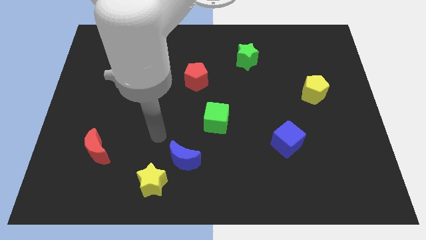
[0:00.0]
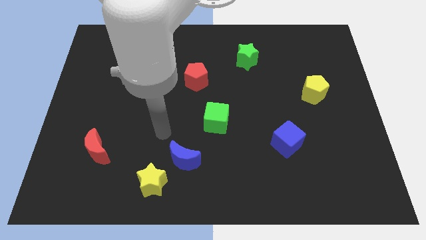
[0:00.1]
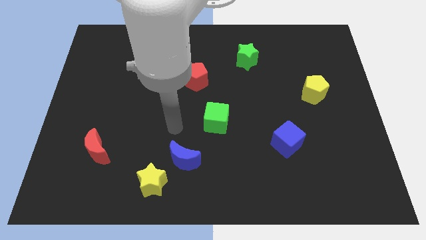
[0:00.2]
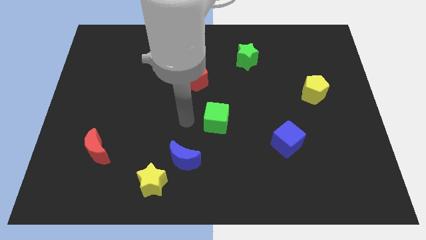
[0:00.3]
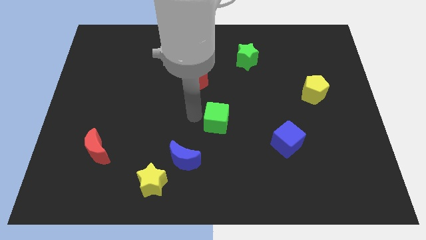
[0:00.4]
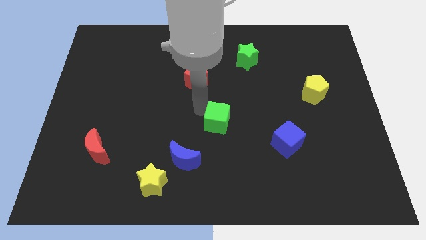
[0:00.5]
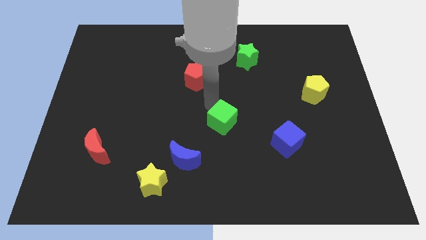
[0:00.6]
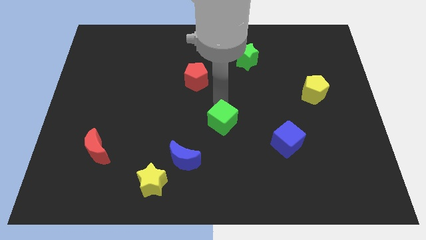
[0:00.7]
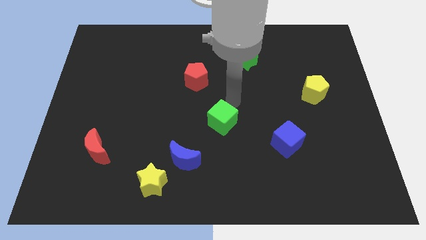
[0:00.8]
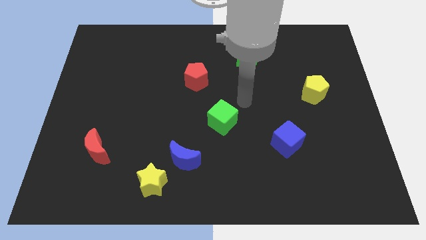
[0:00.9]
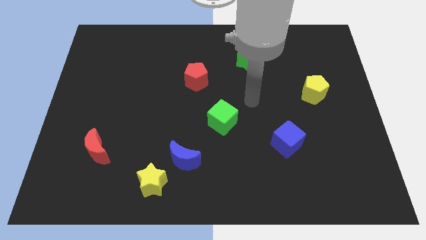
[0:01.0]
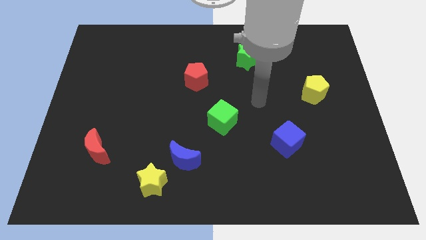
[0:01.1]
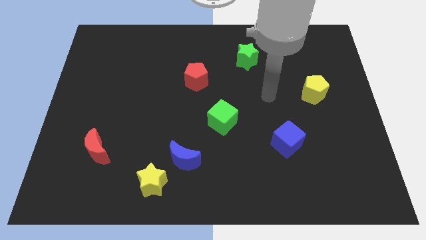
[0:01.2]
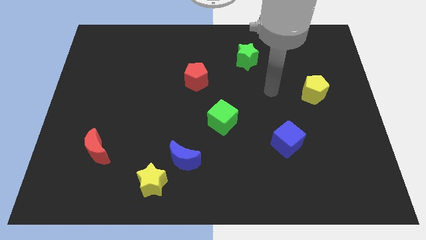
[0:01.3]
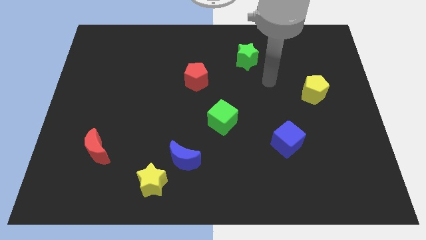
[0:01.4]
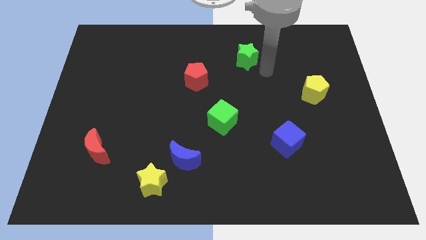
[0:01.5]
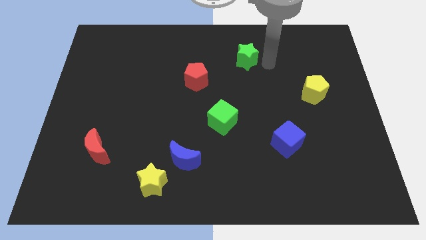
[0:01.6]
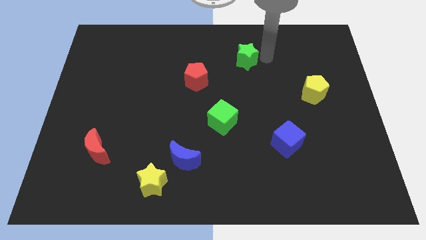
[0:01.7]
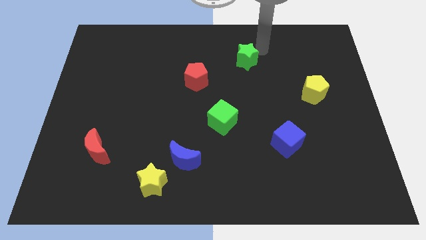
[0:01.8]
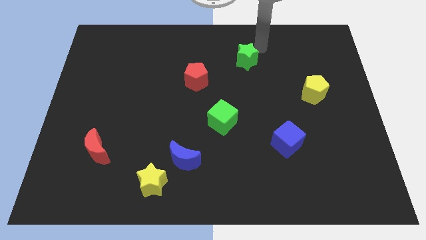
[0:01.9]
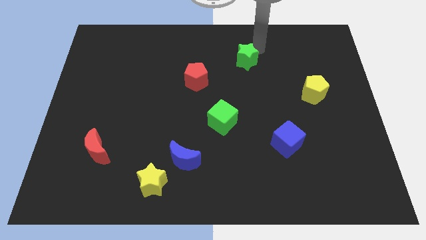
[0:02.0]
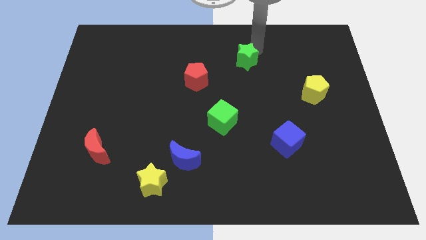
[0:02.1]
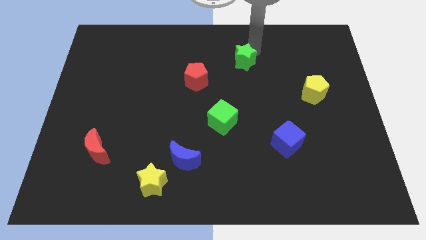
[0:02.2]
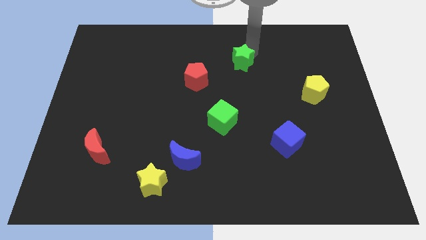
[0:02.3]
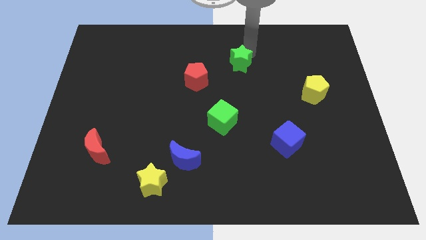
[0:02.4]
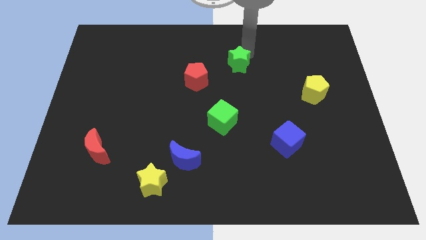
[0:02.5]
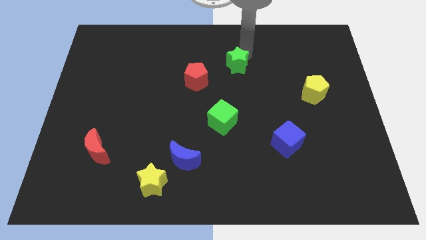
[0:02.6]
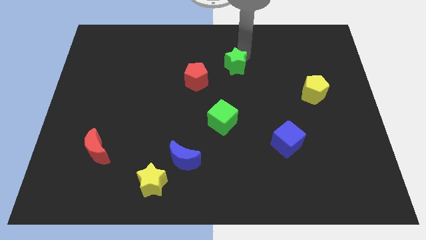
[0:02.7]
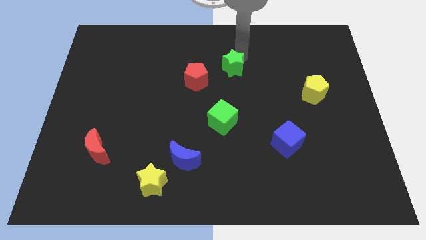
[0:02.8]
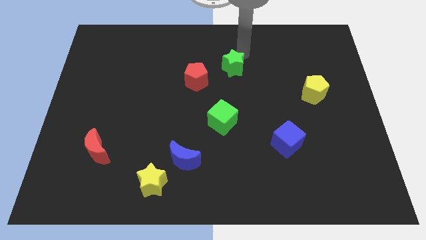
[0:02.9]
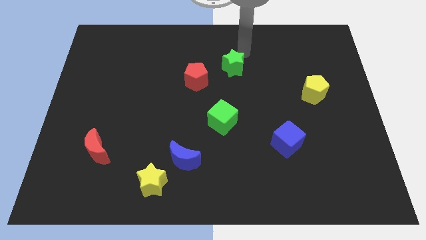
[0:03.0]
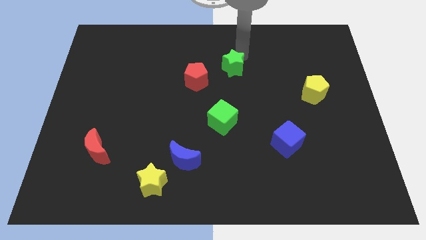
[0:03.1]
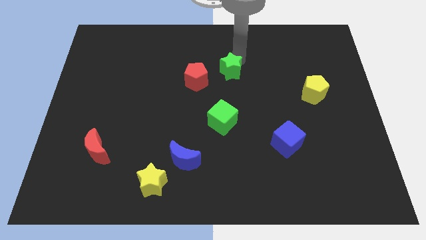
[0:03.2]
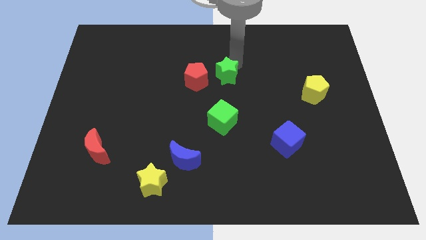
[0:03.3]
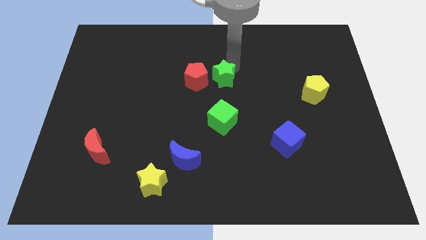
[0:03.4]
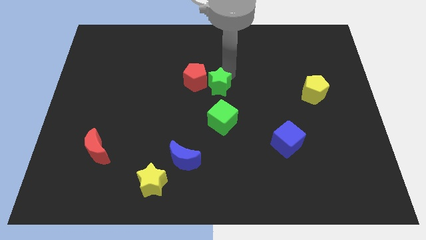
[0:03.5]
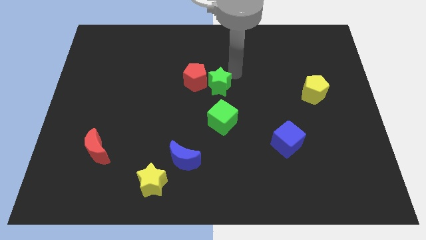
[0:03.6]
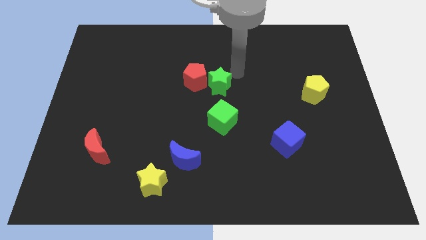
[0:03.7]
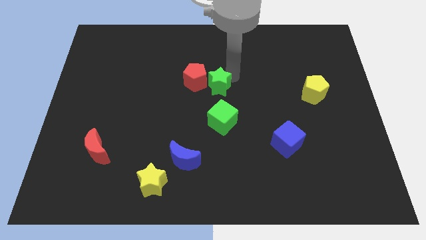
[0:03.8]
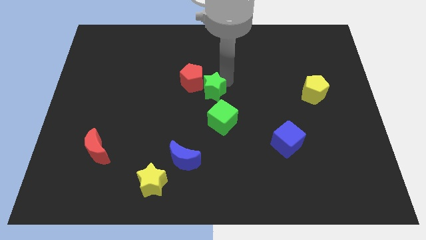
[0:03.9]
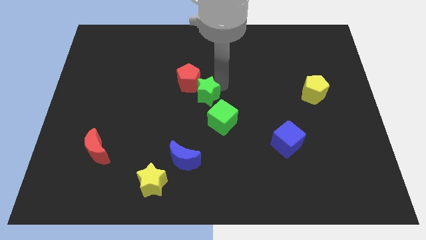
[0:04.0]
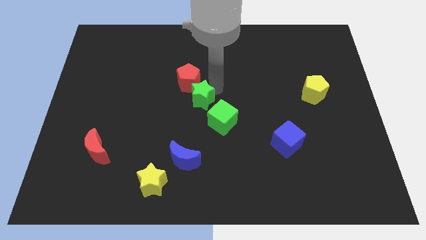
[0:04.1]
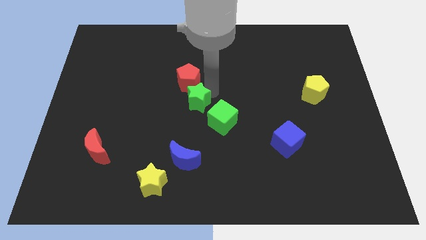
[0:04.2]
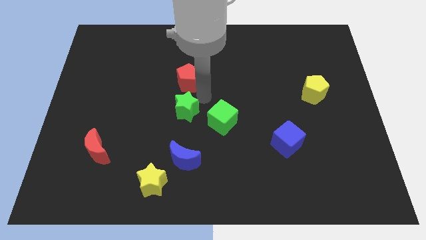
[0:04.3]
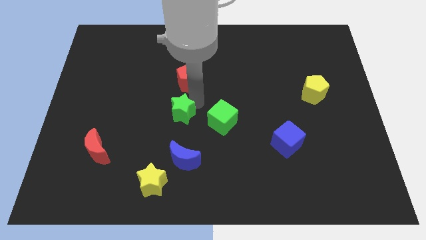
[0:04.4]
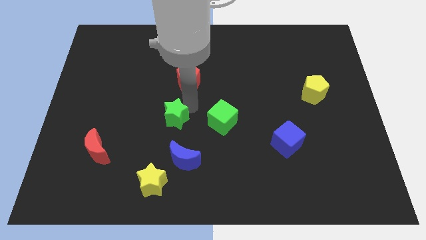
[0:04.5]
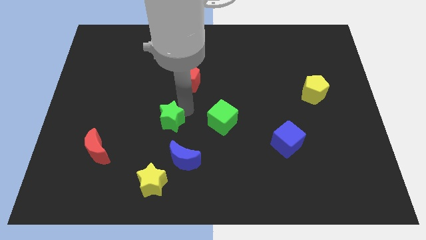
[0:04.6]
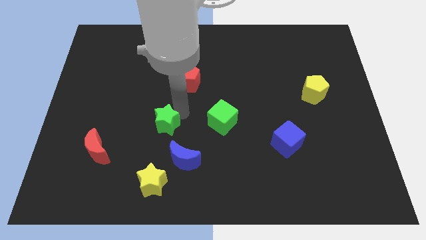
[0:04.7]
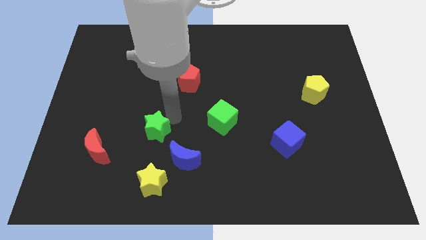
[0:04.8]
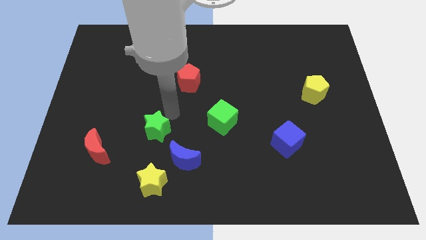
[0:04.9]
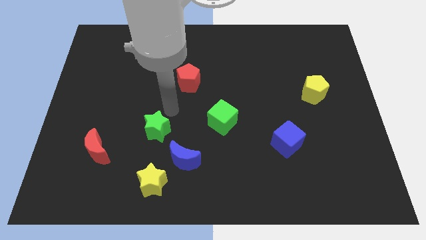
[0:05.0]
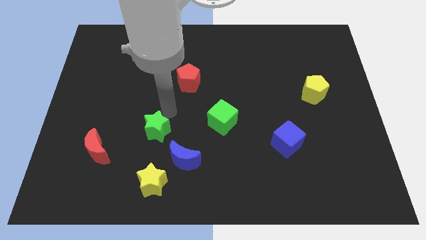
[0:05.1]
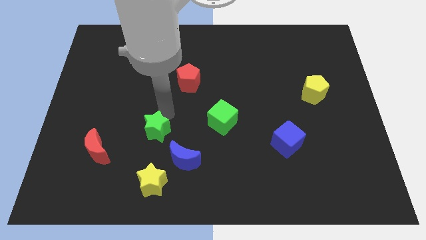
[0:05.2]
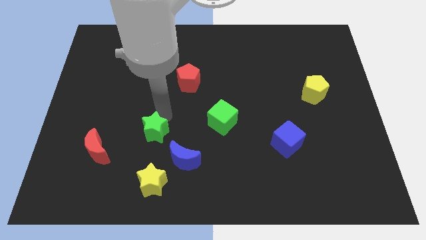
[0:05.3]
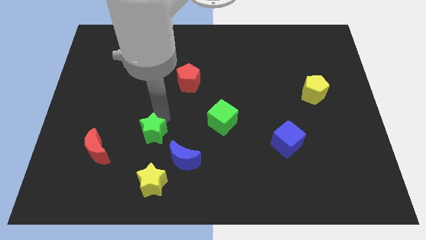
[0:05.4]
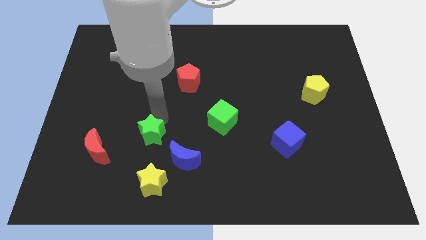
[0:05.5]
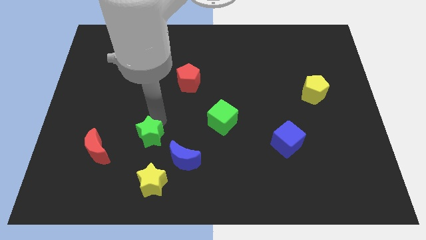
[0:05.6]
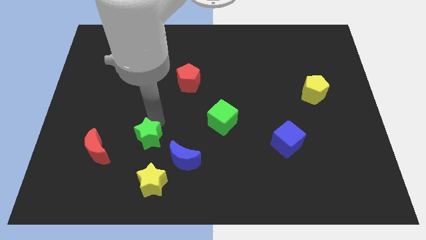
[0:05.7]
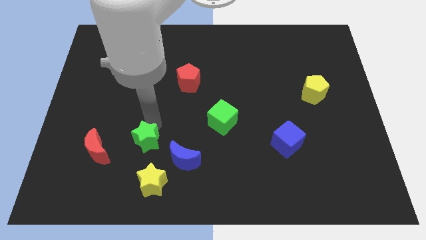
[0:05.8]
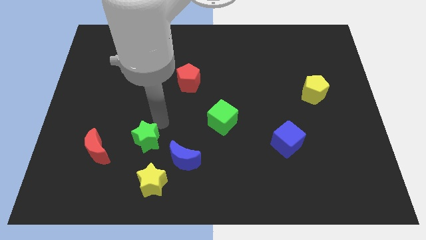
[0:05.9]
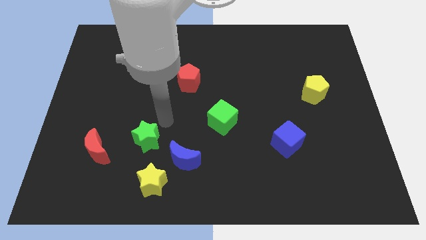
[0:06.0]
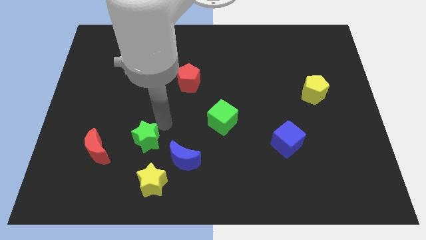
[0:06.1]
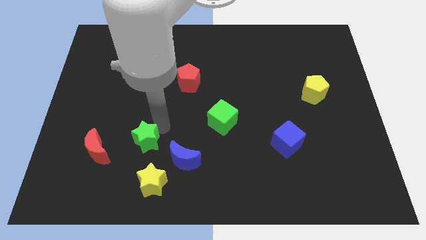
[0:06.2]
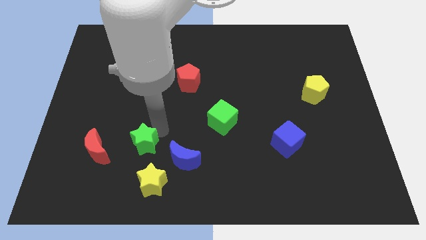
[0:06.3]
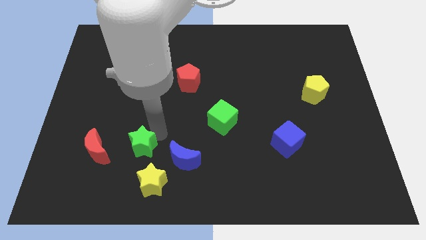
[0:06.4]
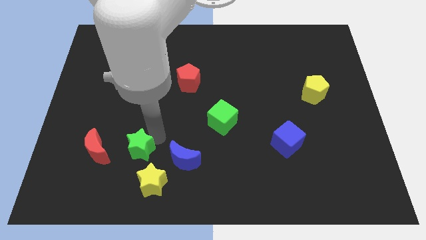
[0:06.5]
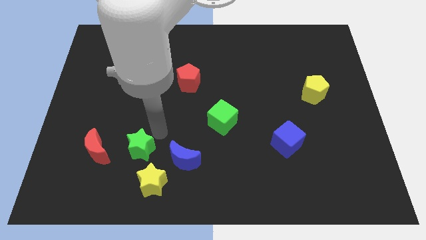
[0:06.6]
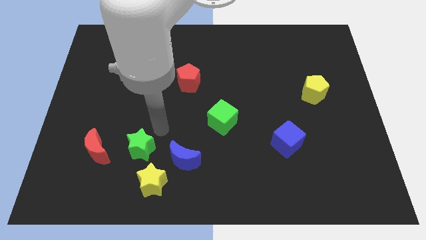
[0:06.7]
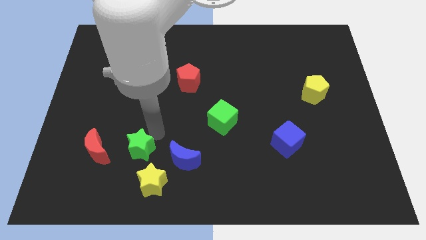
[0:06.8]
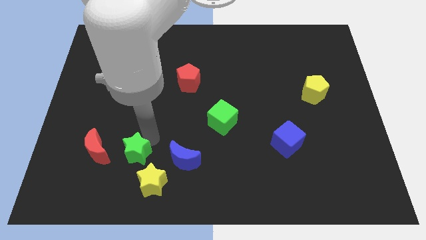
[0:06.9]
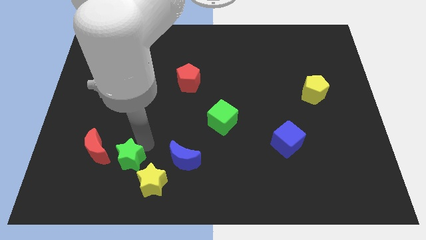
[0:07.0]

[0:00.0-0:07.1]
move the green star to the bottom right side of the red moon
